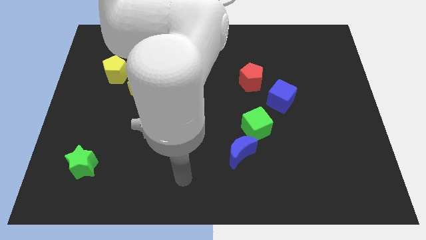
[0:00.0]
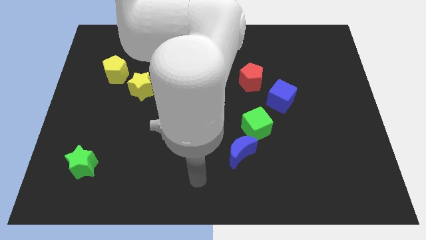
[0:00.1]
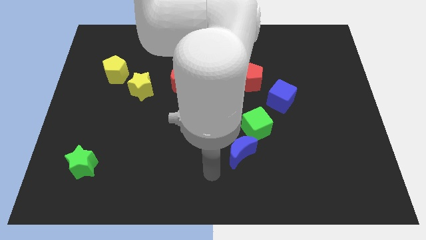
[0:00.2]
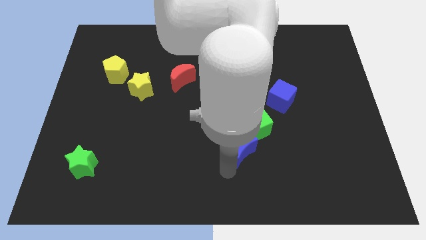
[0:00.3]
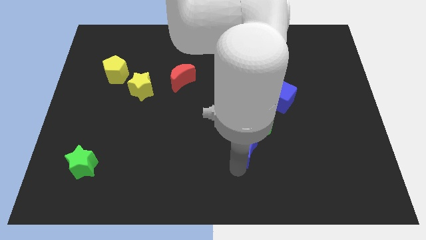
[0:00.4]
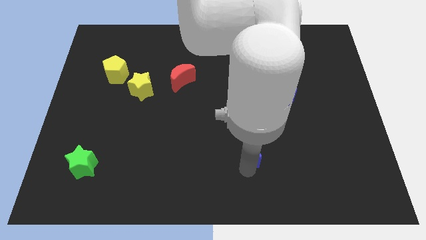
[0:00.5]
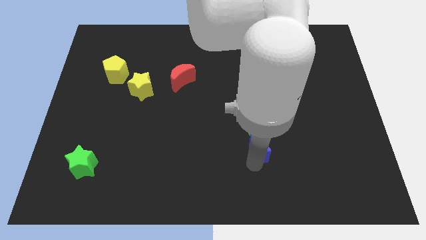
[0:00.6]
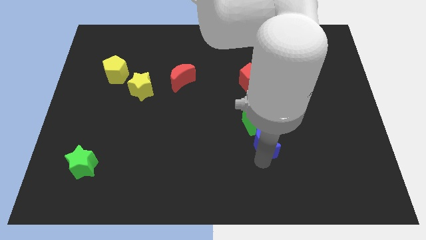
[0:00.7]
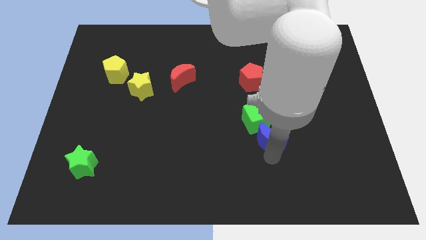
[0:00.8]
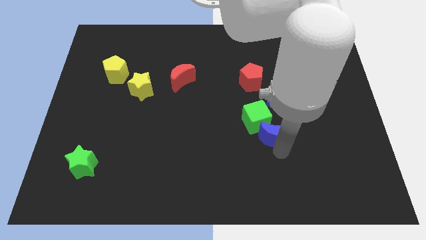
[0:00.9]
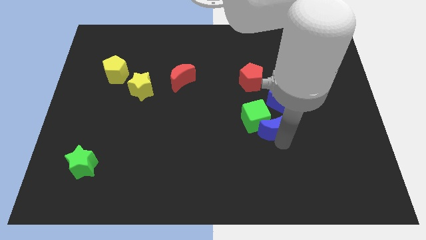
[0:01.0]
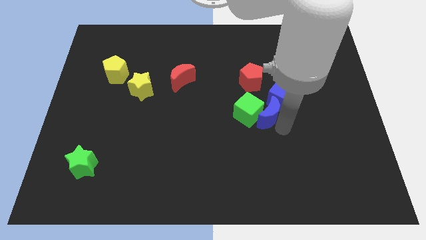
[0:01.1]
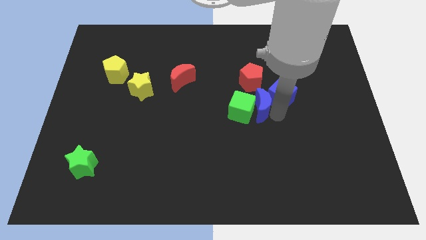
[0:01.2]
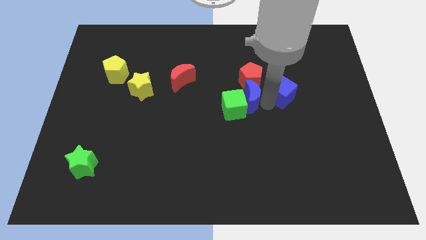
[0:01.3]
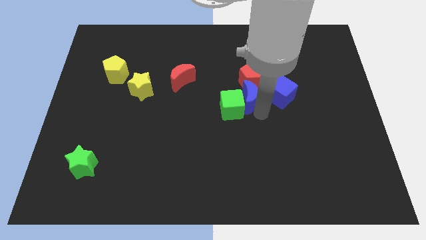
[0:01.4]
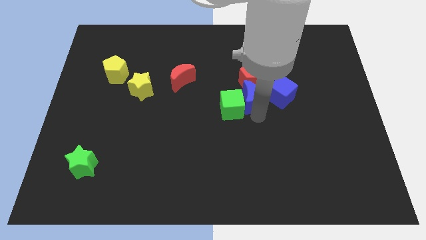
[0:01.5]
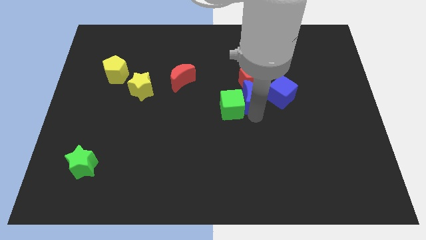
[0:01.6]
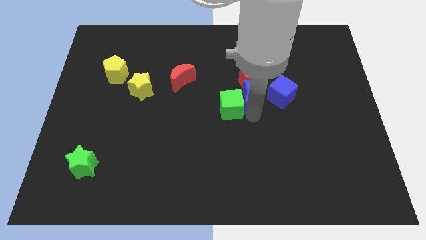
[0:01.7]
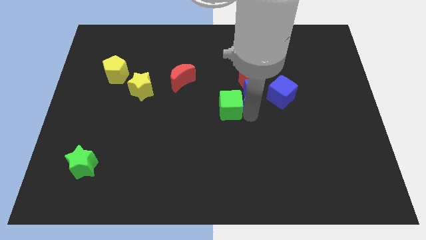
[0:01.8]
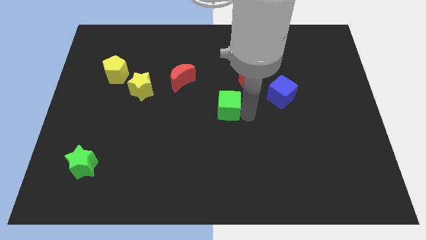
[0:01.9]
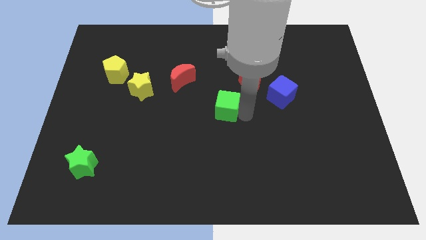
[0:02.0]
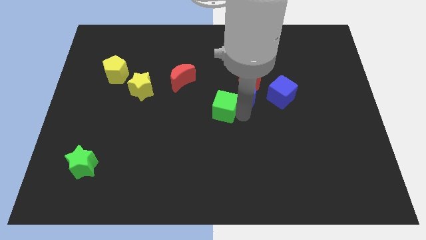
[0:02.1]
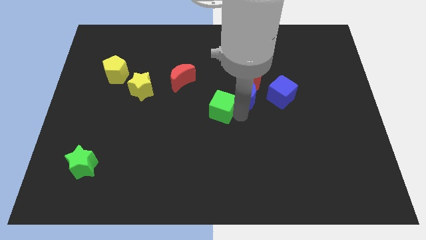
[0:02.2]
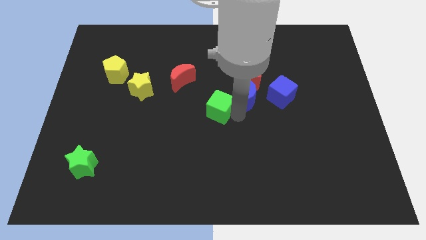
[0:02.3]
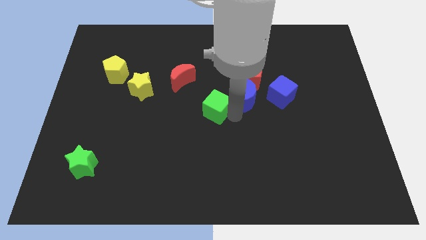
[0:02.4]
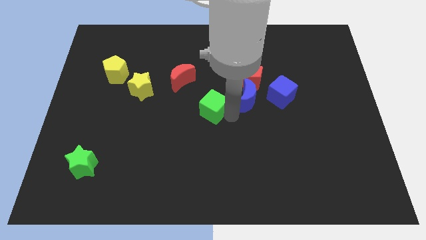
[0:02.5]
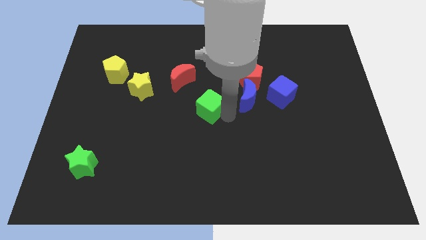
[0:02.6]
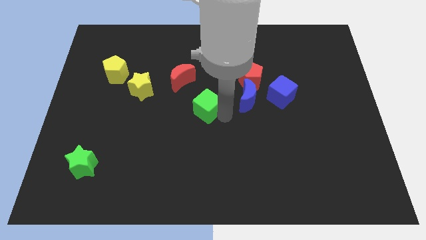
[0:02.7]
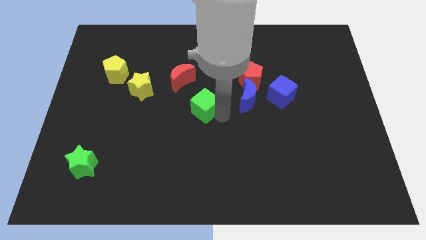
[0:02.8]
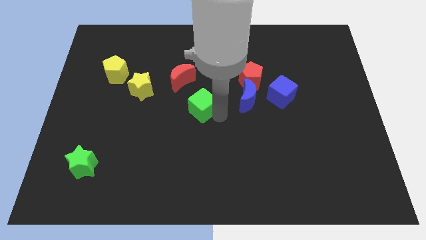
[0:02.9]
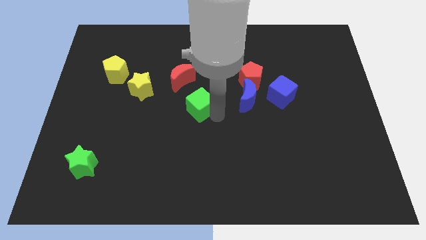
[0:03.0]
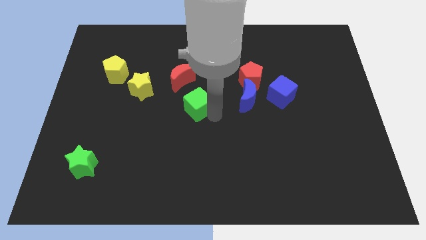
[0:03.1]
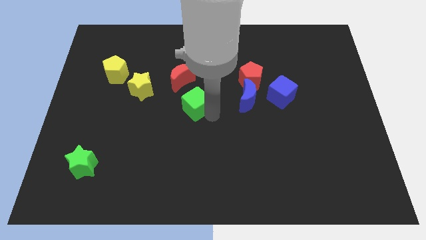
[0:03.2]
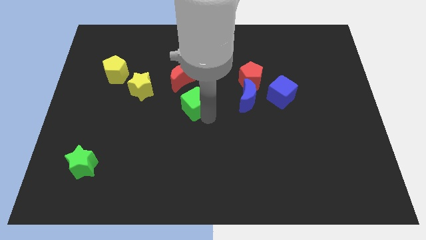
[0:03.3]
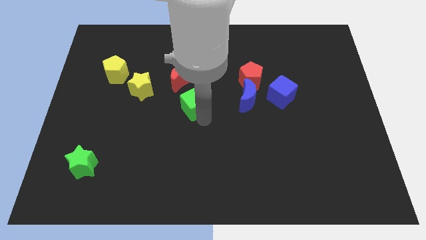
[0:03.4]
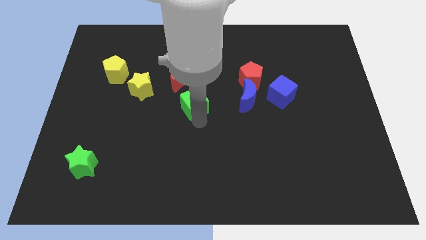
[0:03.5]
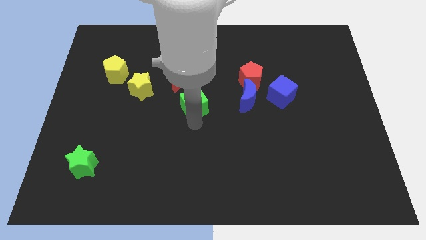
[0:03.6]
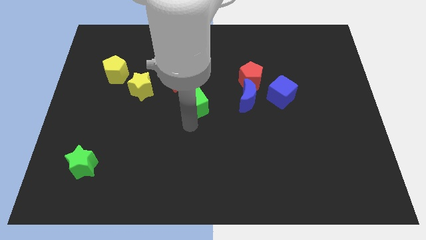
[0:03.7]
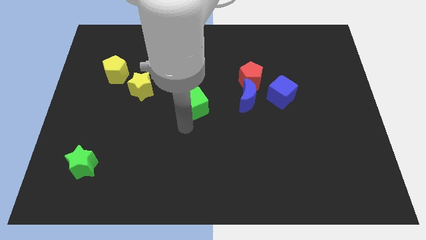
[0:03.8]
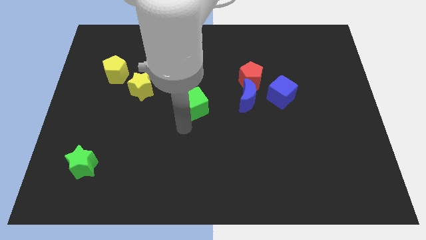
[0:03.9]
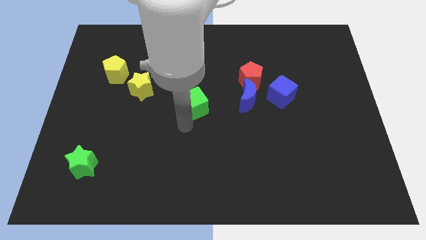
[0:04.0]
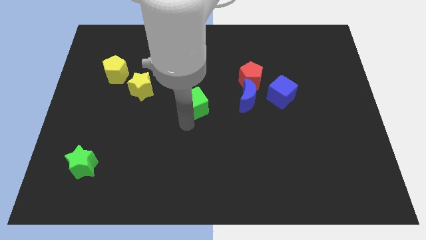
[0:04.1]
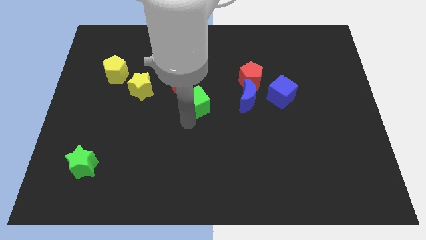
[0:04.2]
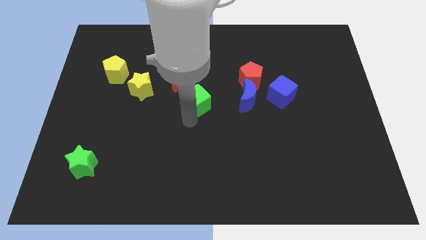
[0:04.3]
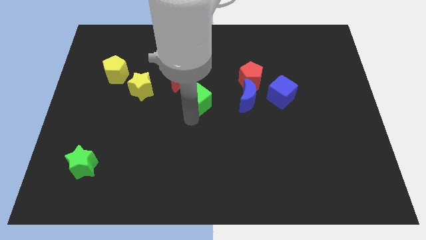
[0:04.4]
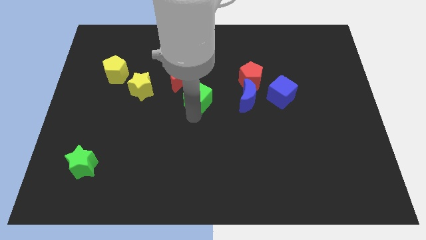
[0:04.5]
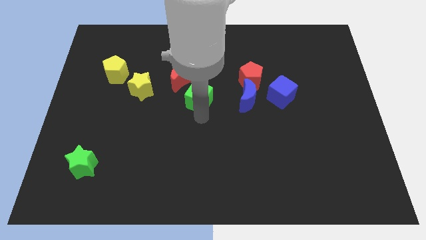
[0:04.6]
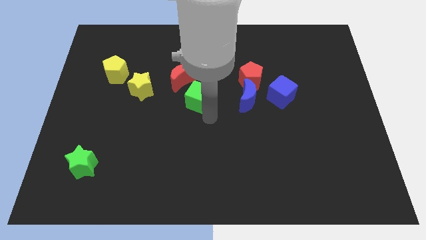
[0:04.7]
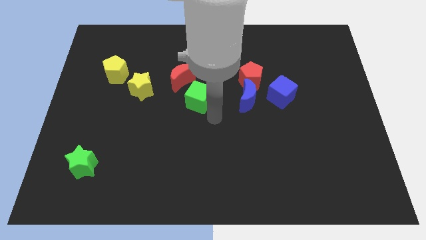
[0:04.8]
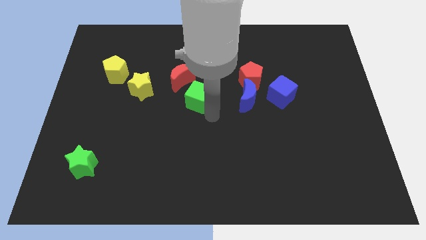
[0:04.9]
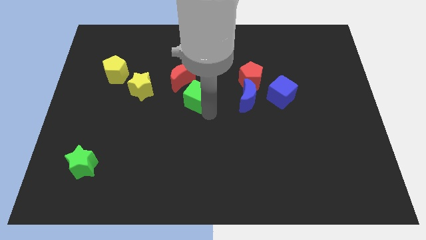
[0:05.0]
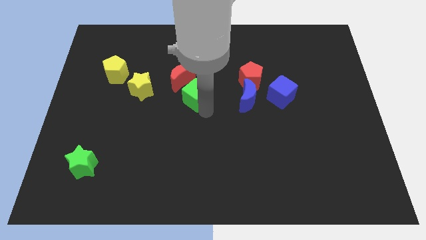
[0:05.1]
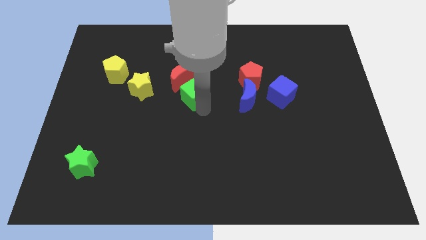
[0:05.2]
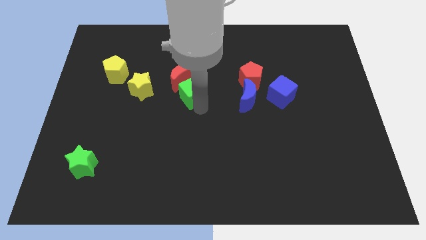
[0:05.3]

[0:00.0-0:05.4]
push the green cube close to the red moon

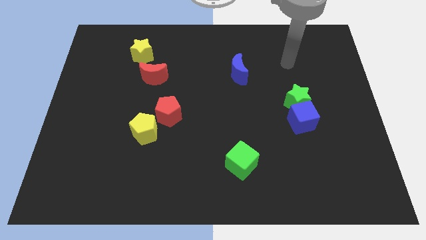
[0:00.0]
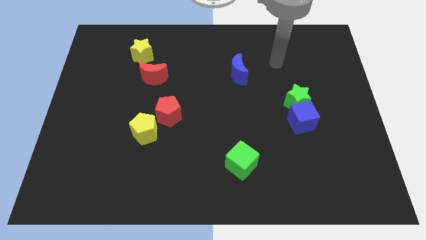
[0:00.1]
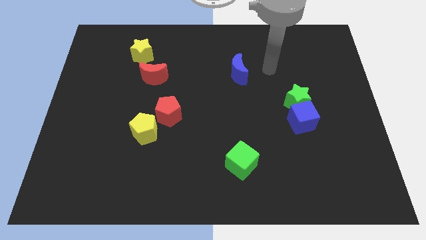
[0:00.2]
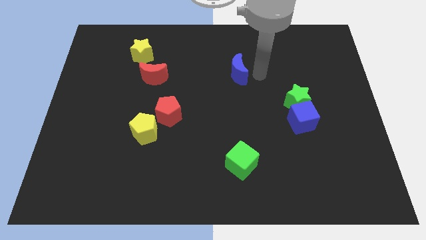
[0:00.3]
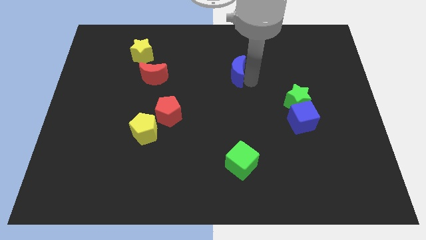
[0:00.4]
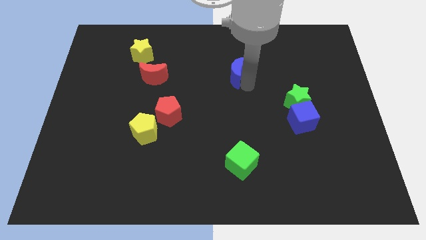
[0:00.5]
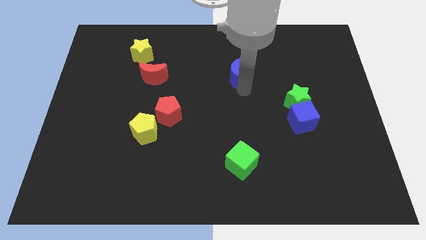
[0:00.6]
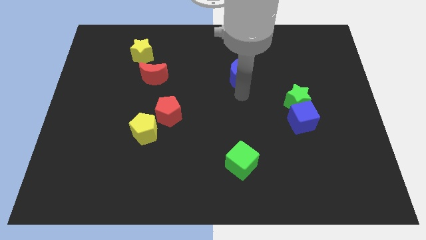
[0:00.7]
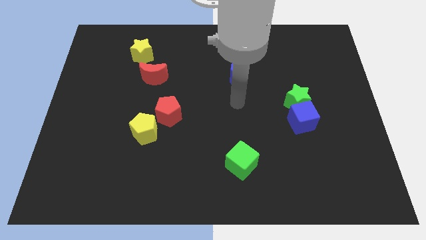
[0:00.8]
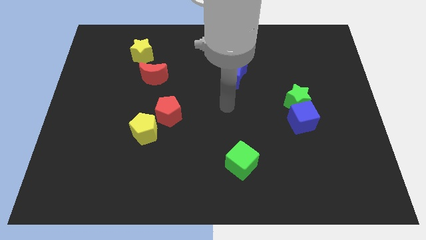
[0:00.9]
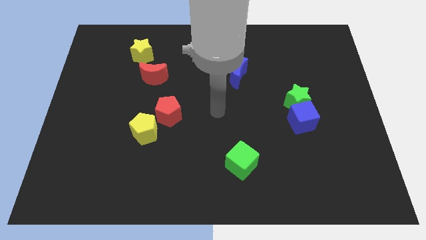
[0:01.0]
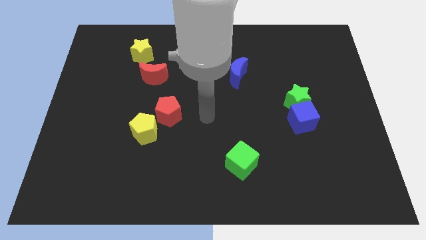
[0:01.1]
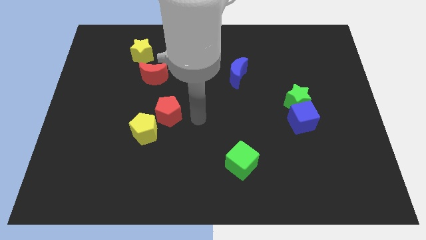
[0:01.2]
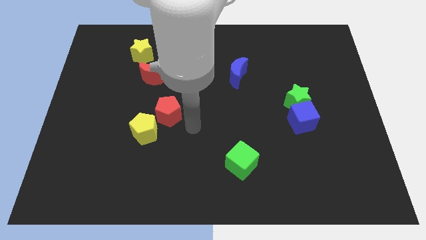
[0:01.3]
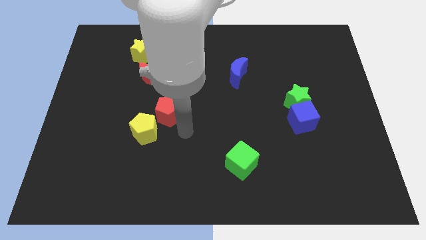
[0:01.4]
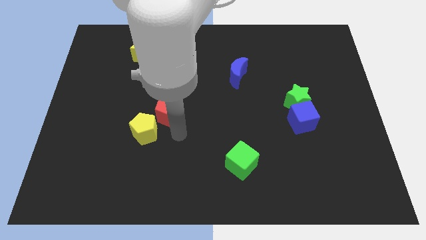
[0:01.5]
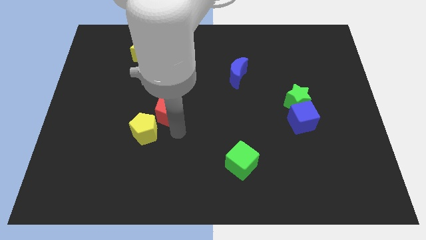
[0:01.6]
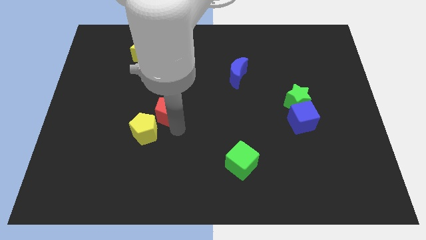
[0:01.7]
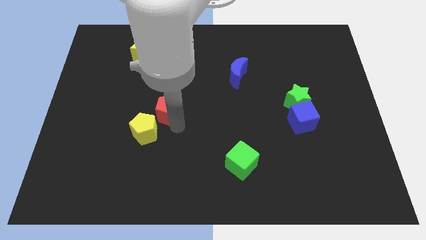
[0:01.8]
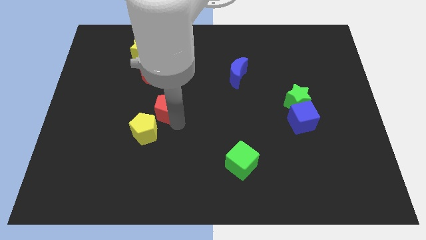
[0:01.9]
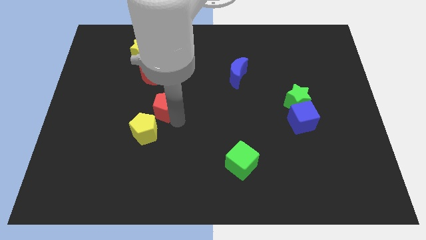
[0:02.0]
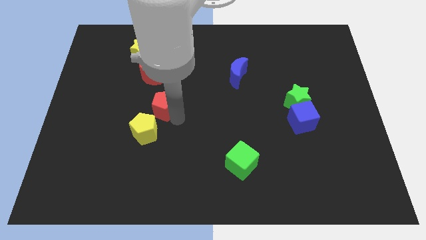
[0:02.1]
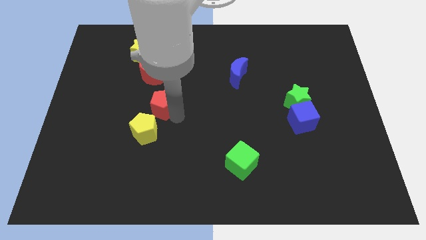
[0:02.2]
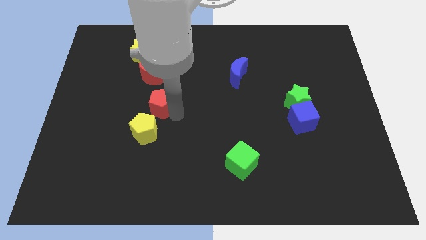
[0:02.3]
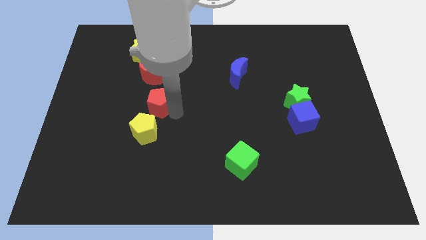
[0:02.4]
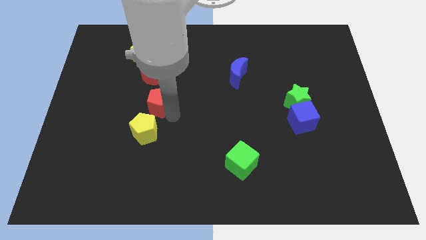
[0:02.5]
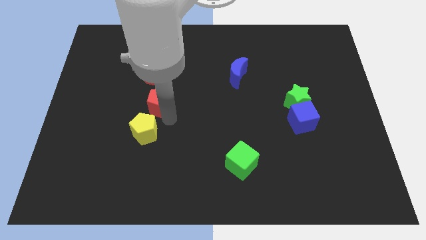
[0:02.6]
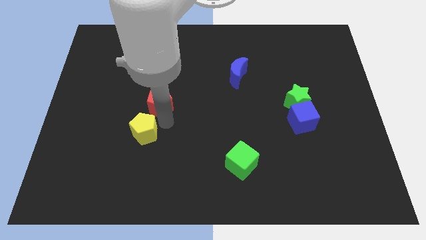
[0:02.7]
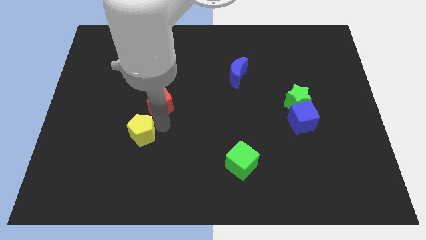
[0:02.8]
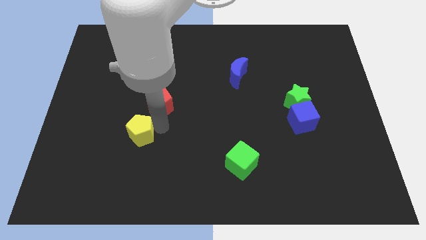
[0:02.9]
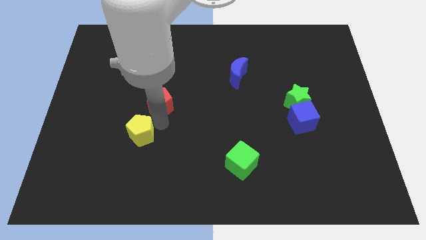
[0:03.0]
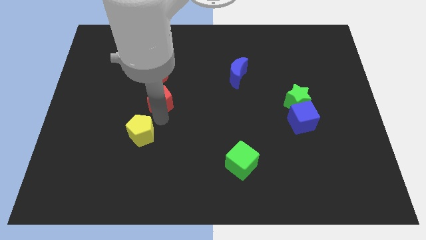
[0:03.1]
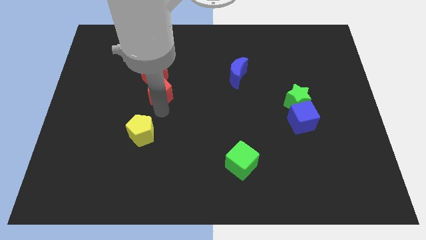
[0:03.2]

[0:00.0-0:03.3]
move the red pentagon towards the red moon
